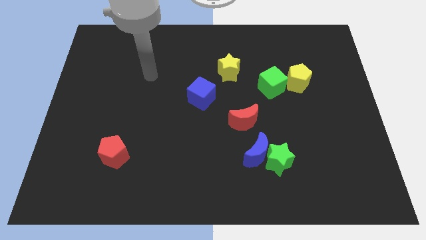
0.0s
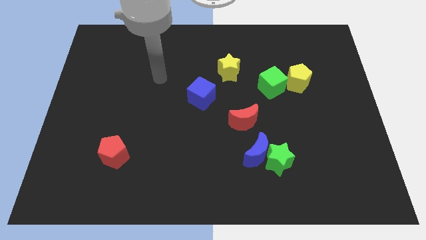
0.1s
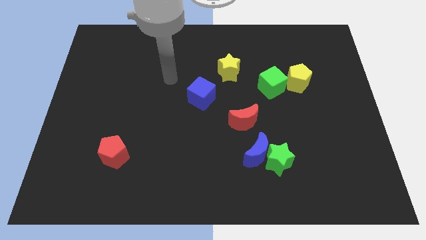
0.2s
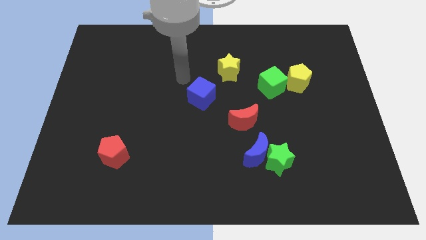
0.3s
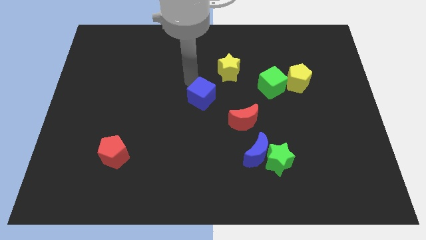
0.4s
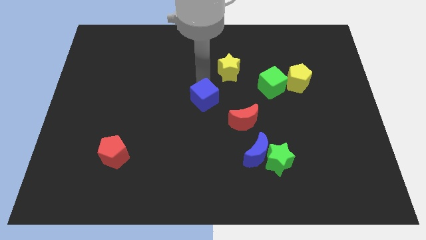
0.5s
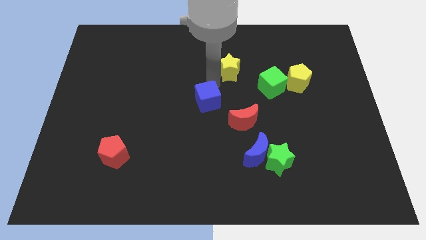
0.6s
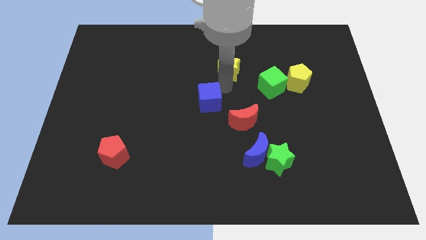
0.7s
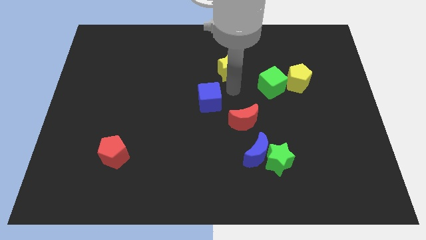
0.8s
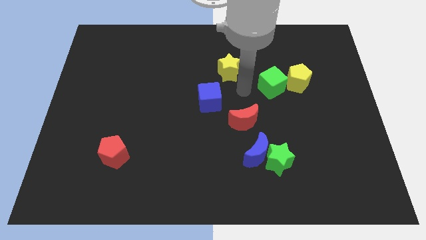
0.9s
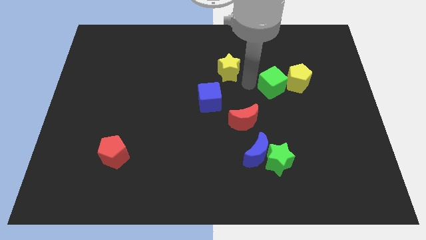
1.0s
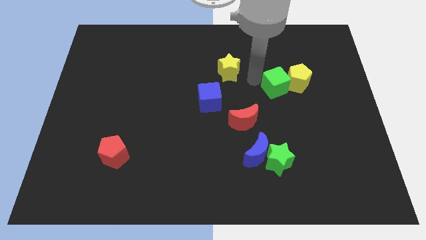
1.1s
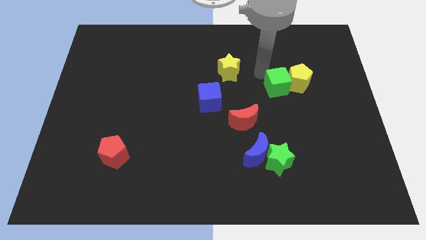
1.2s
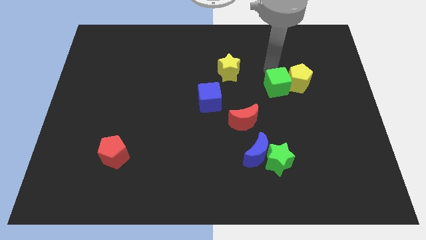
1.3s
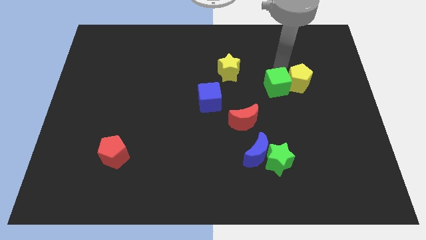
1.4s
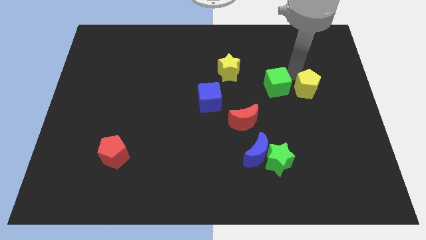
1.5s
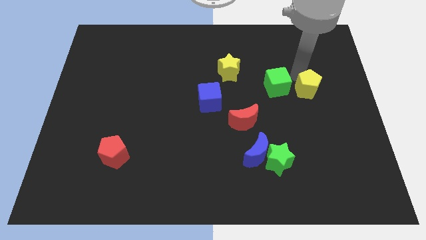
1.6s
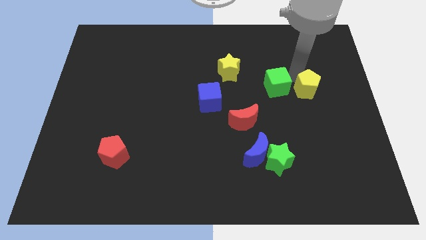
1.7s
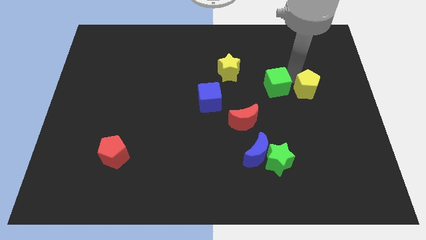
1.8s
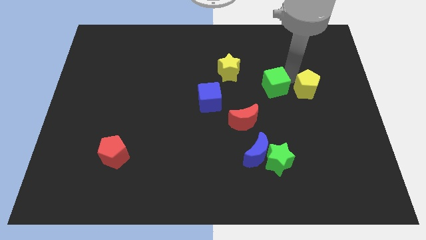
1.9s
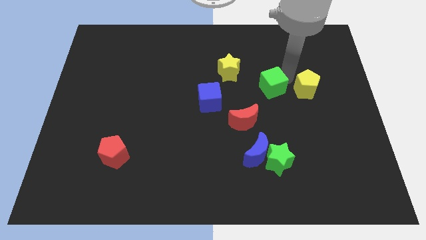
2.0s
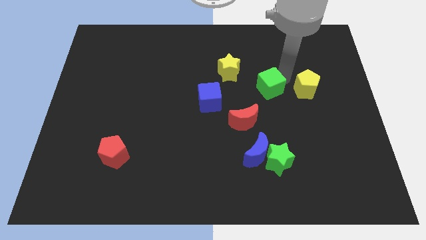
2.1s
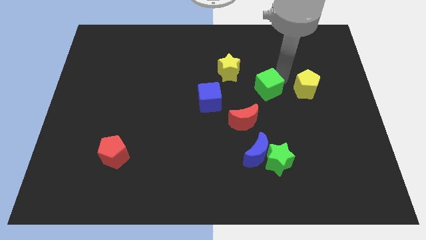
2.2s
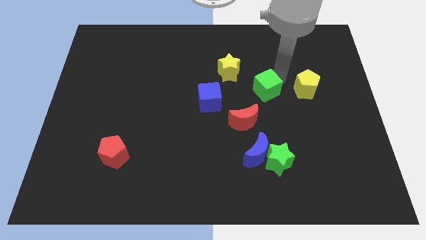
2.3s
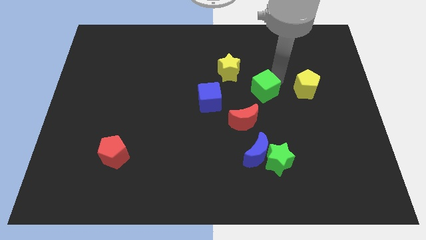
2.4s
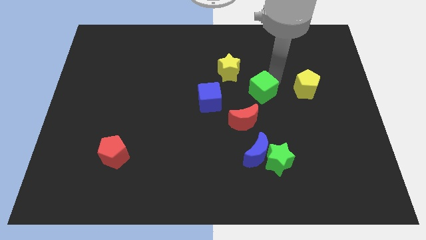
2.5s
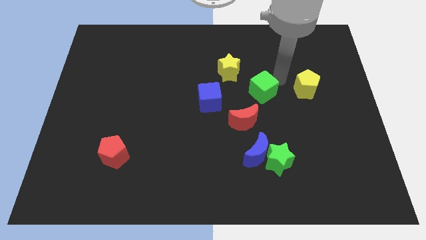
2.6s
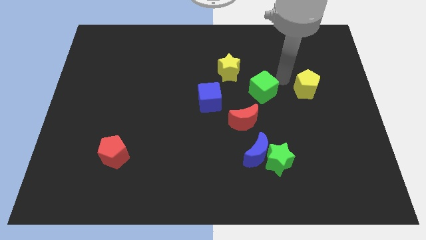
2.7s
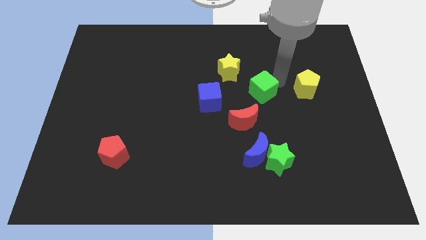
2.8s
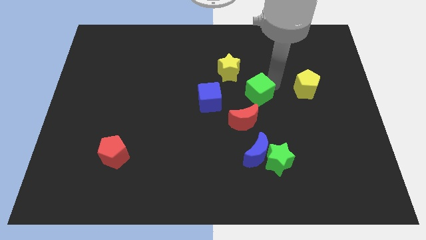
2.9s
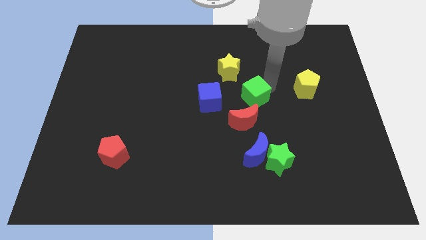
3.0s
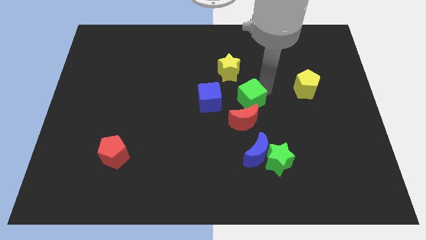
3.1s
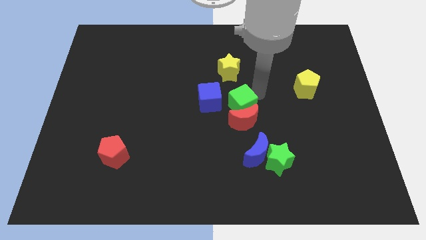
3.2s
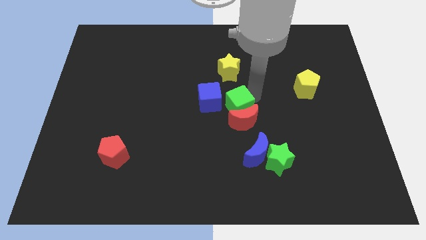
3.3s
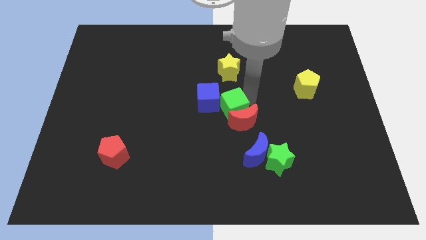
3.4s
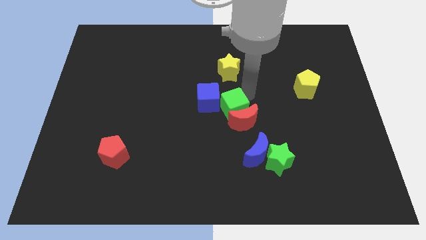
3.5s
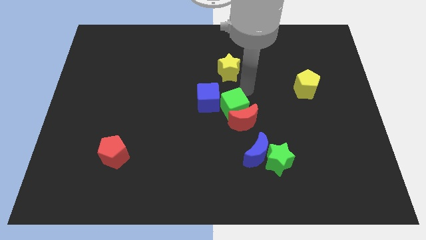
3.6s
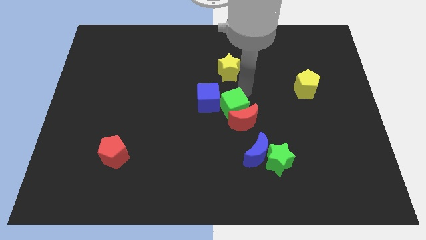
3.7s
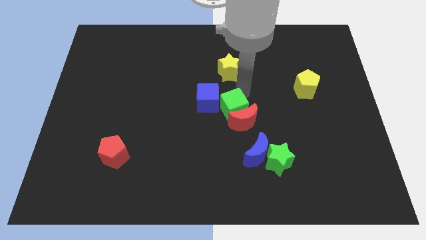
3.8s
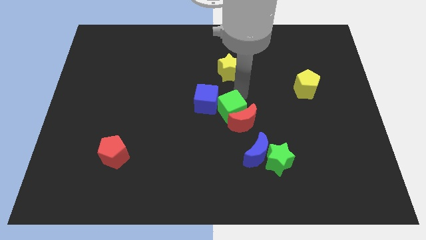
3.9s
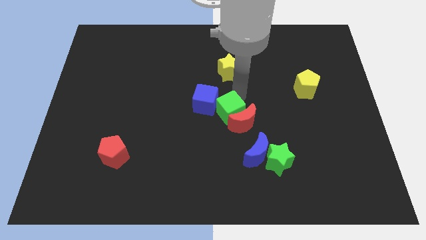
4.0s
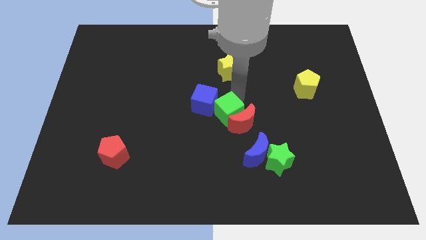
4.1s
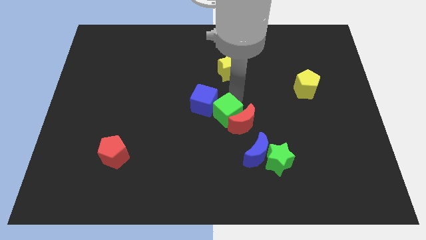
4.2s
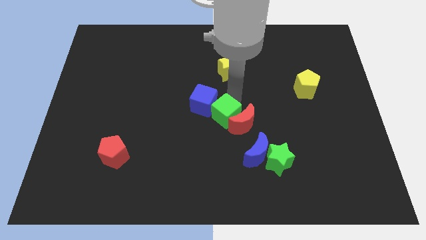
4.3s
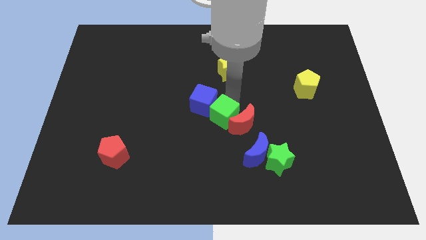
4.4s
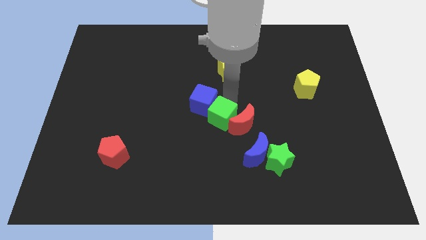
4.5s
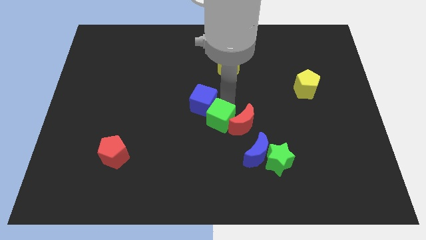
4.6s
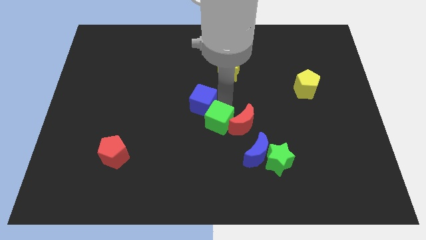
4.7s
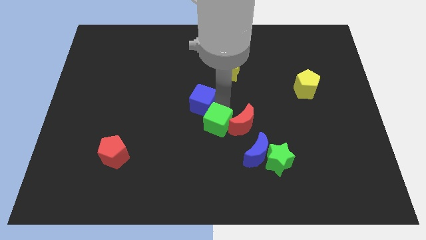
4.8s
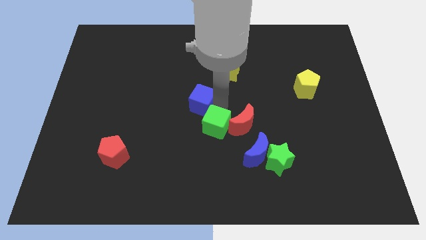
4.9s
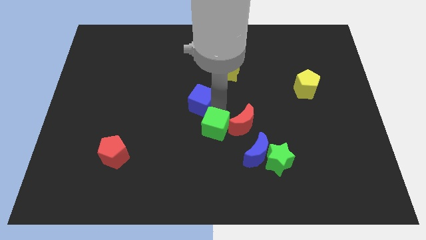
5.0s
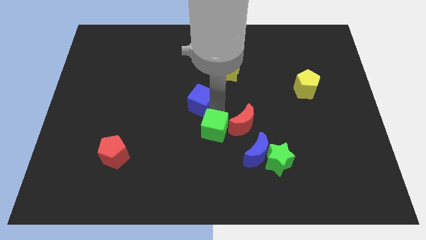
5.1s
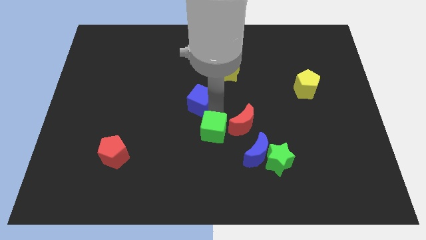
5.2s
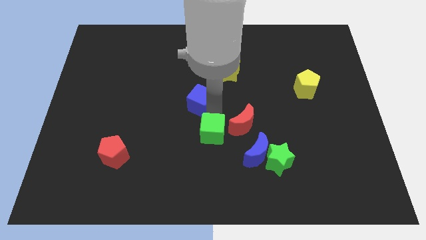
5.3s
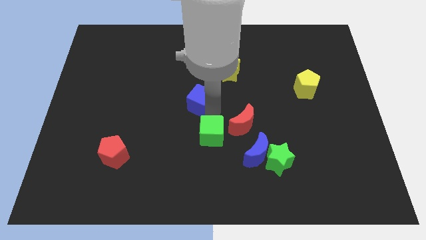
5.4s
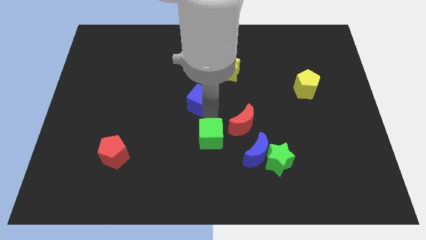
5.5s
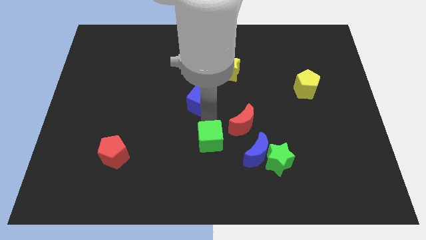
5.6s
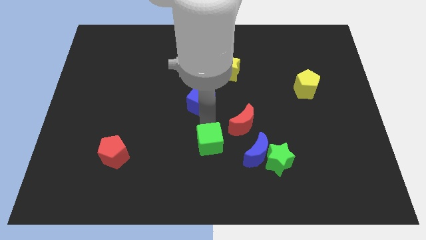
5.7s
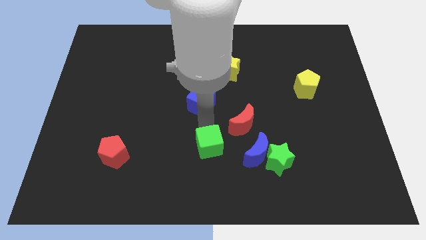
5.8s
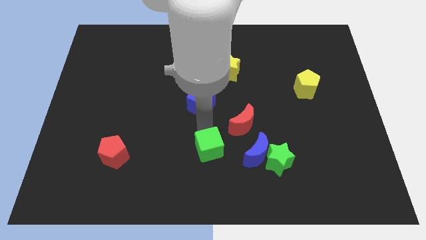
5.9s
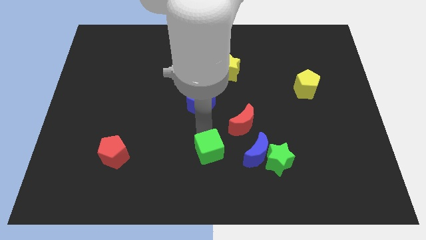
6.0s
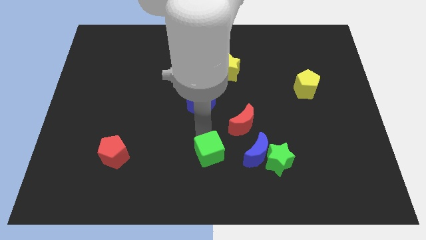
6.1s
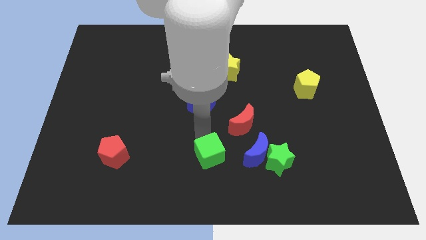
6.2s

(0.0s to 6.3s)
move the green cube to the bottom side
